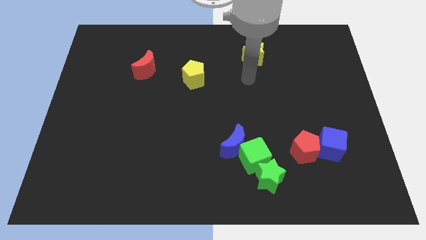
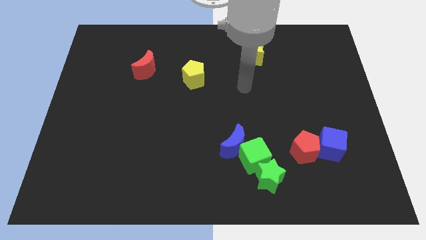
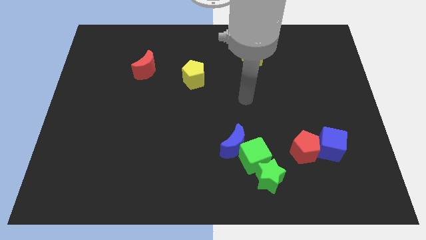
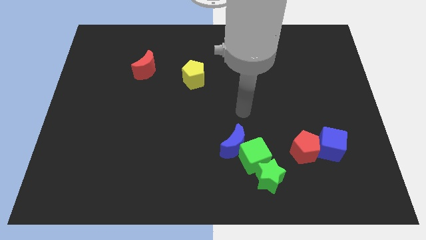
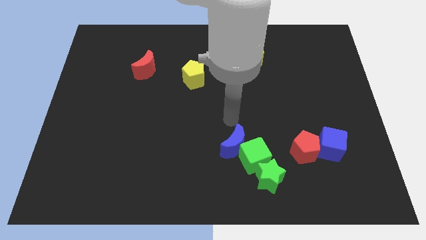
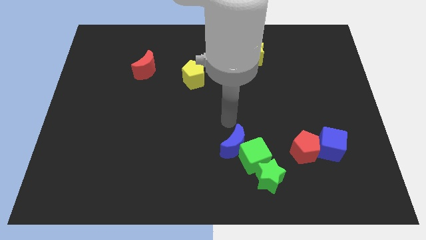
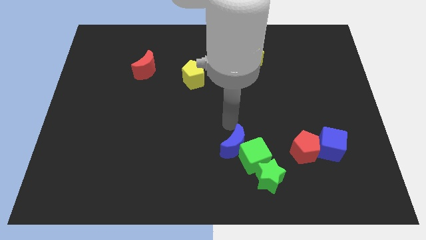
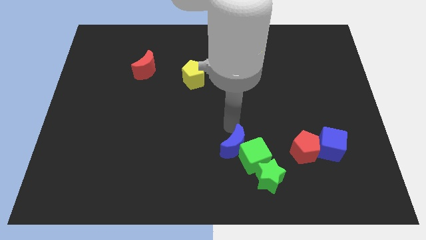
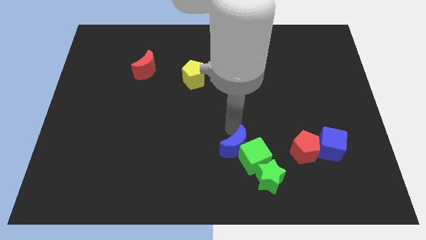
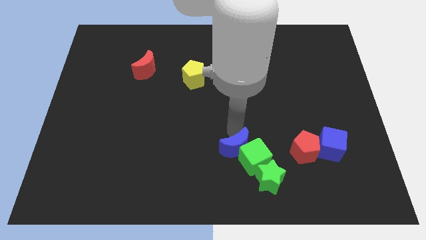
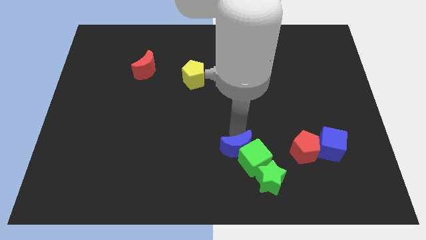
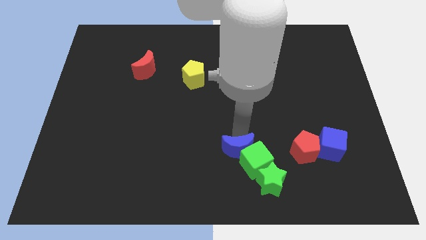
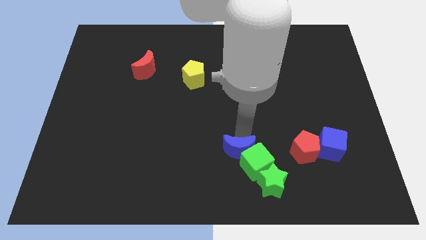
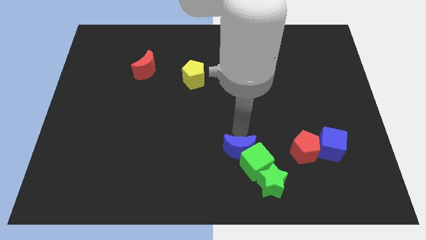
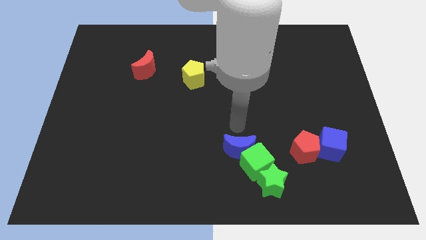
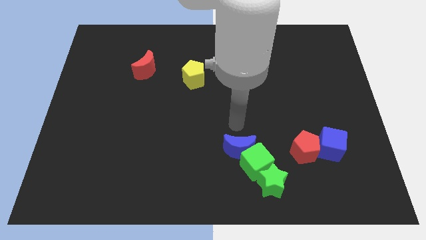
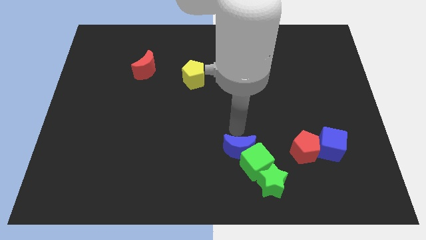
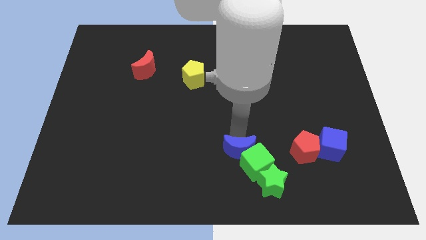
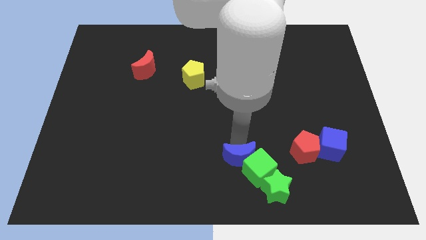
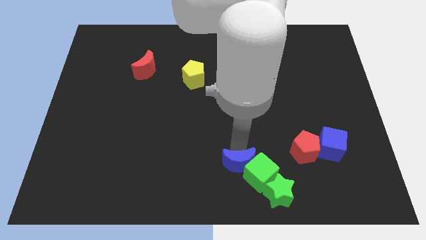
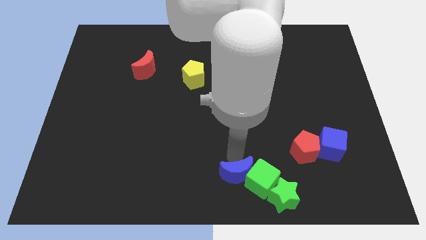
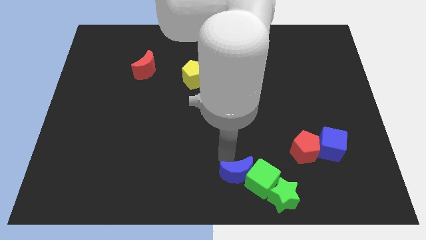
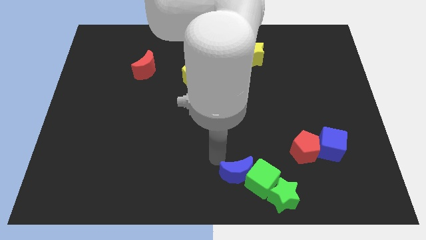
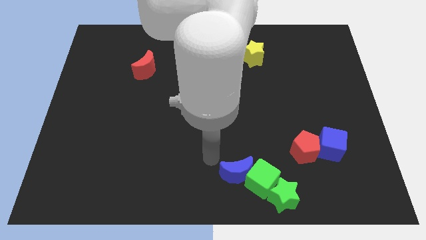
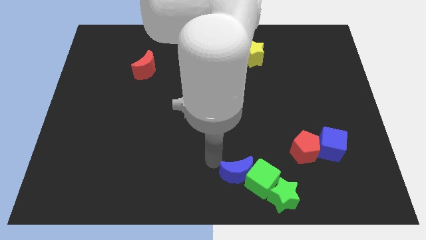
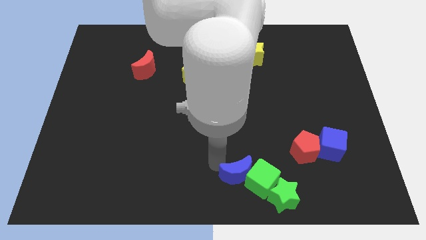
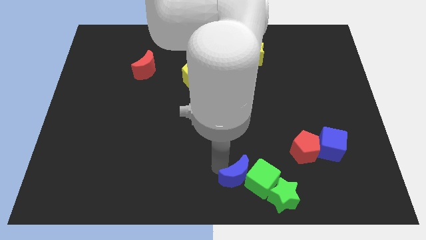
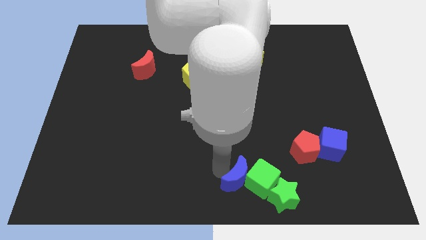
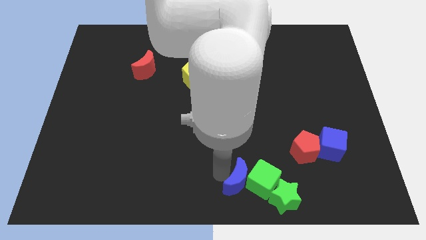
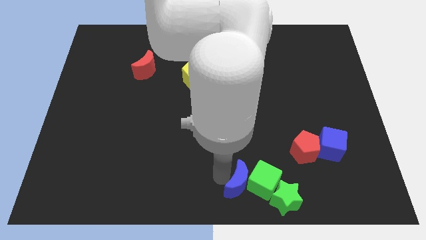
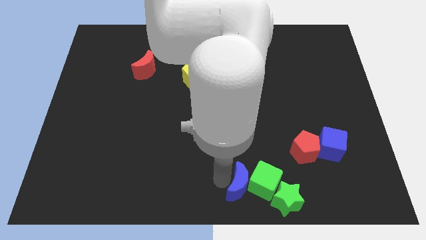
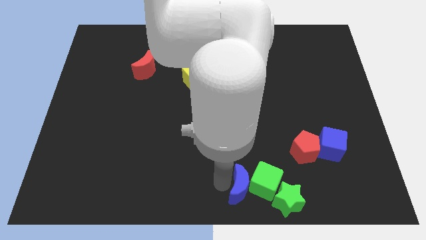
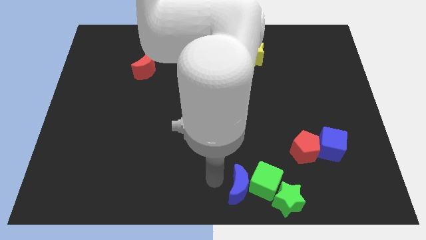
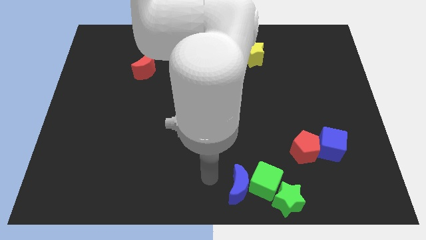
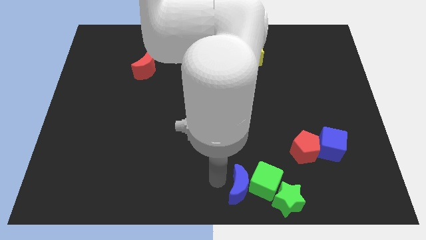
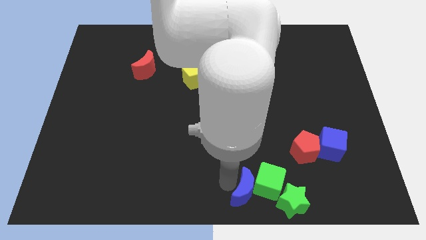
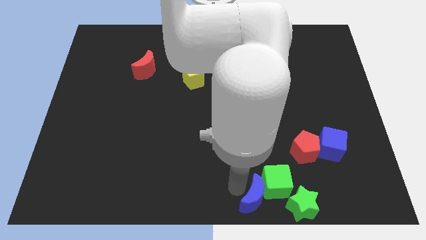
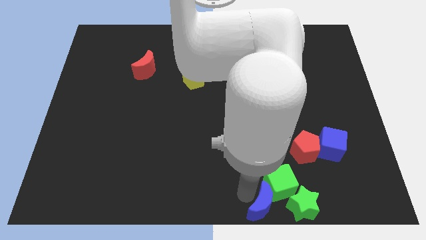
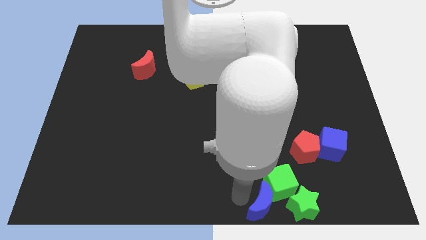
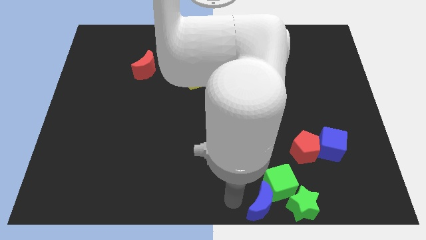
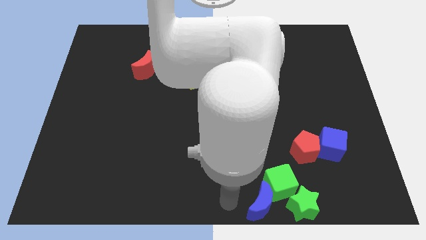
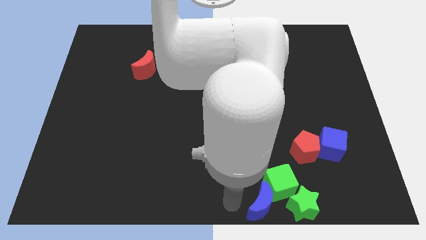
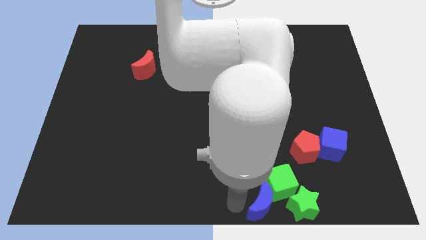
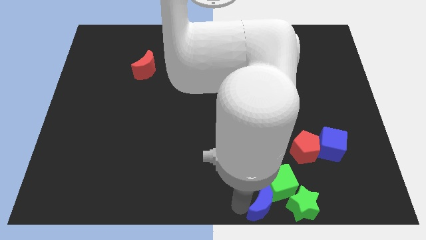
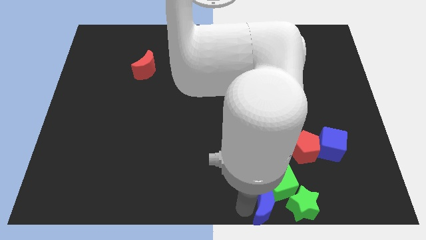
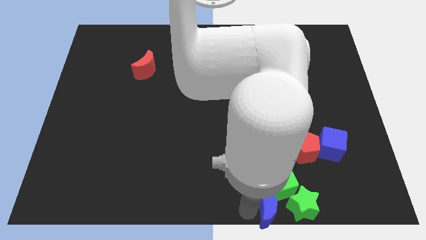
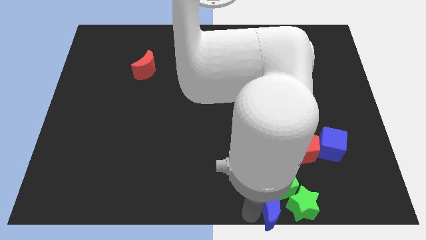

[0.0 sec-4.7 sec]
push the blue moon next to the green star

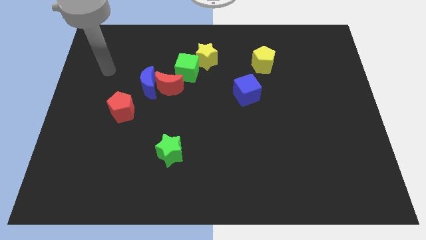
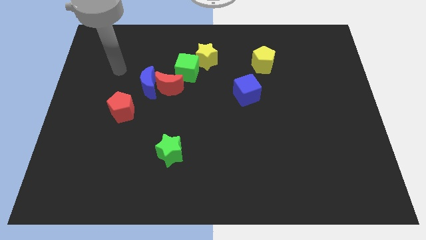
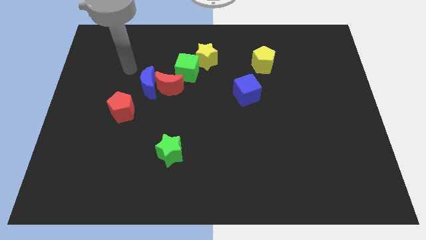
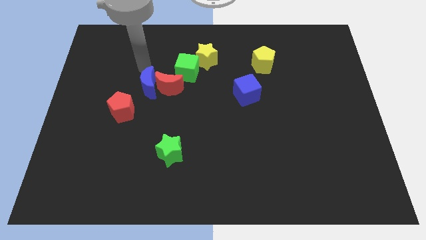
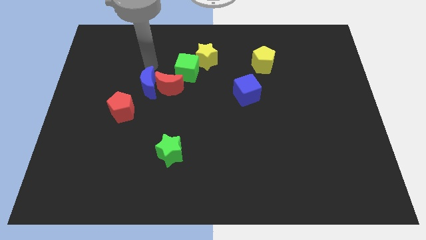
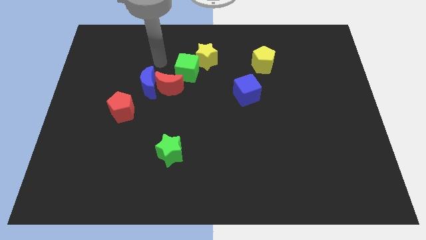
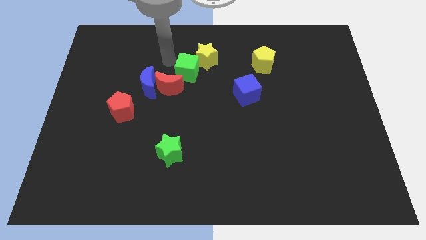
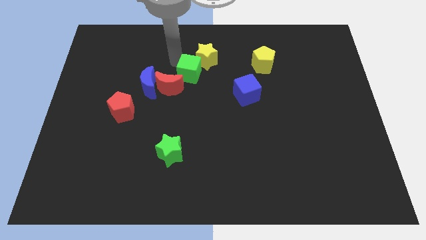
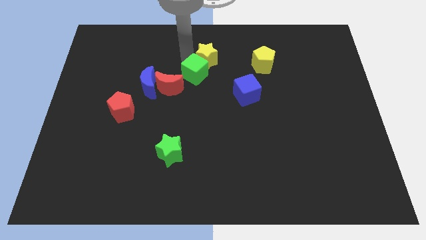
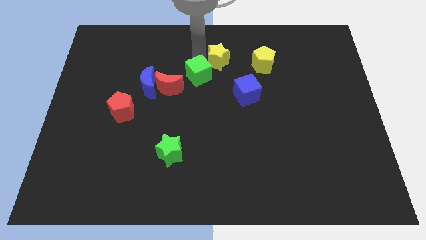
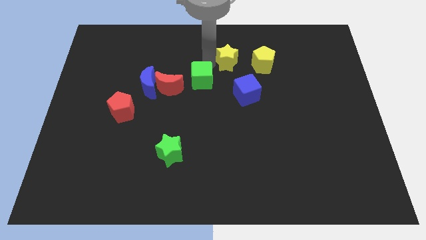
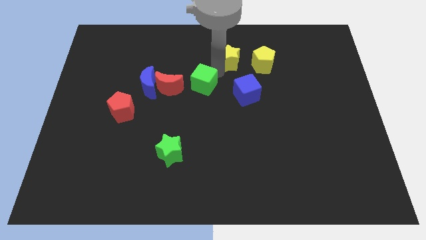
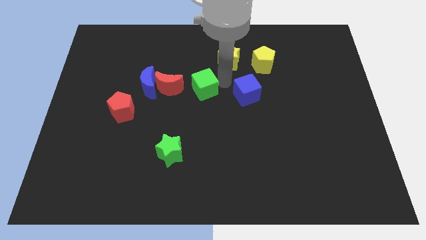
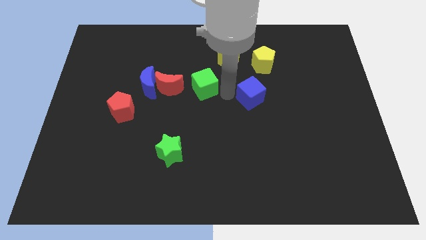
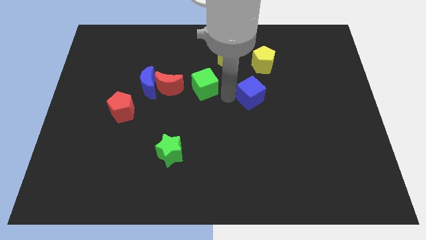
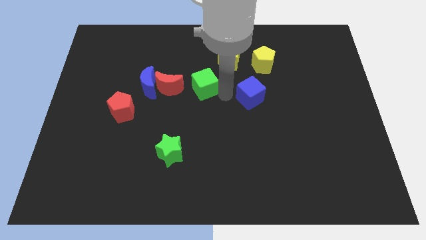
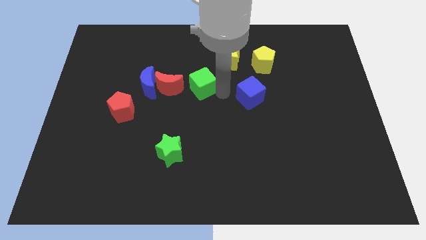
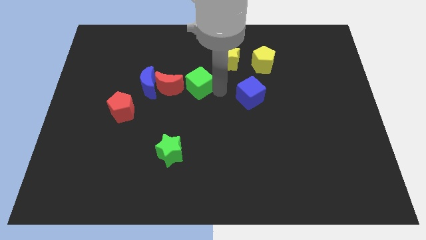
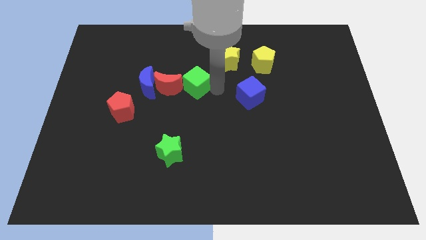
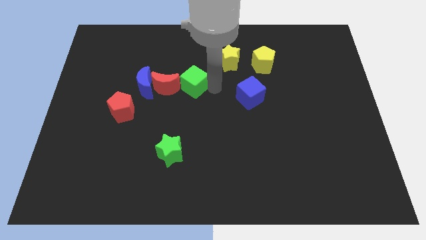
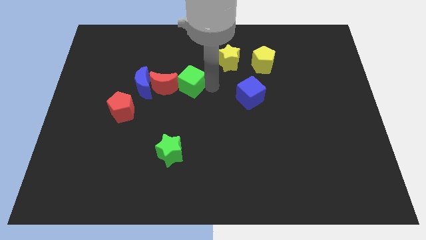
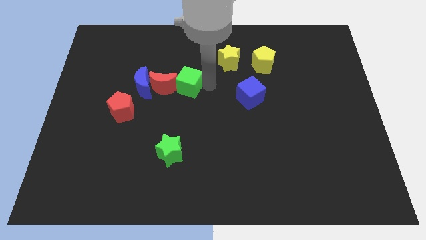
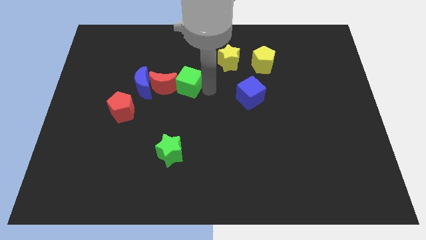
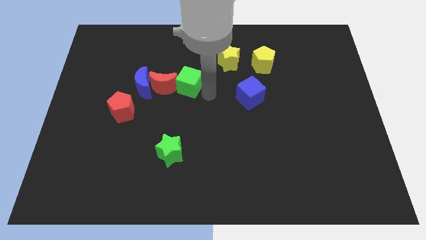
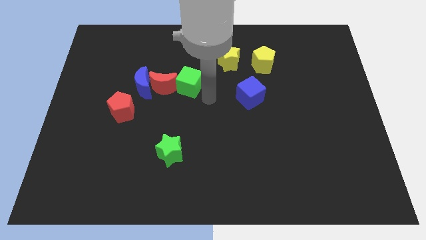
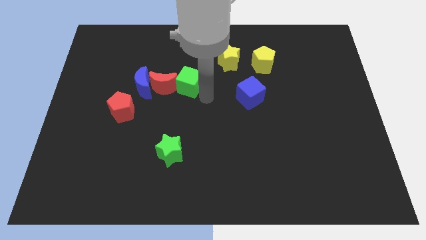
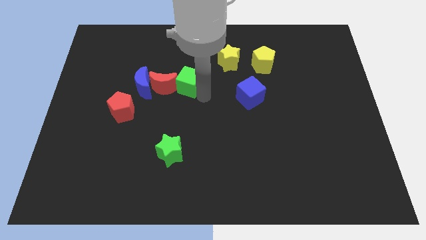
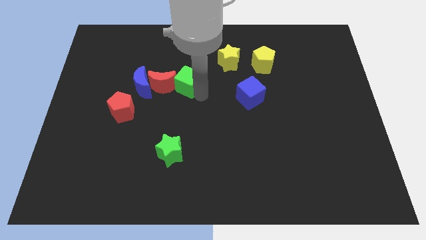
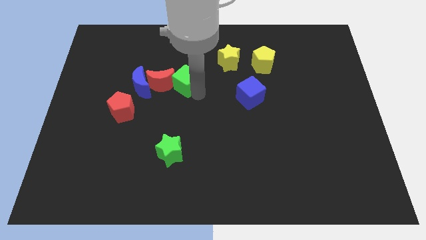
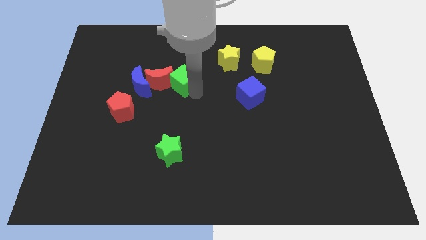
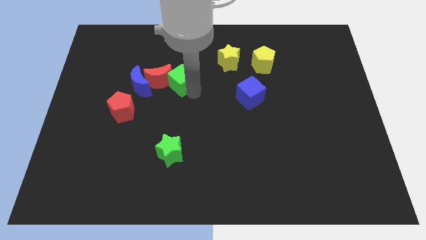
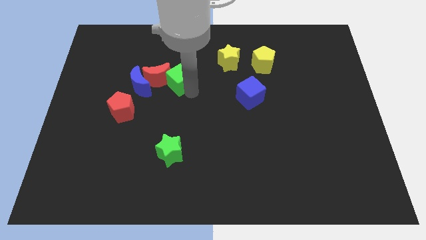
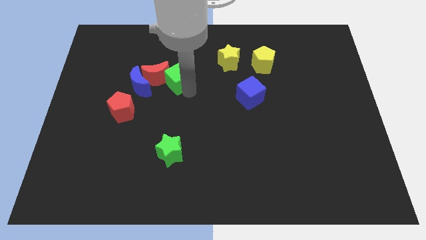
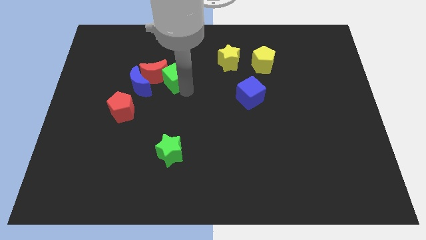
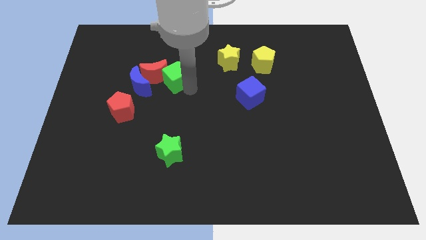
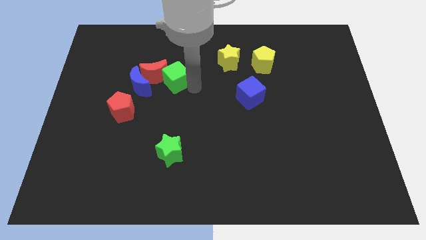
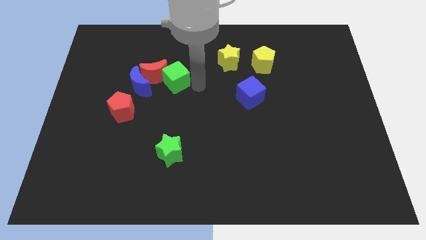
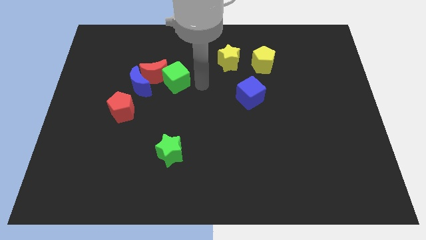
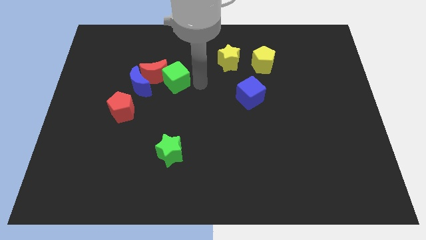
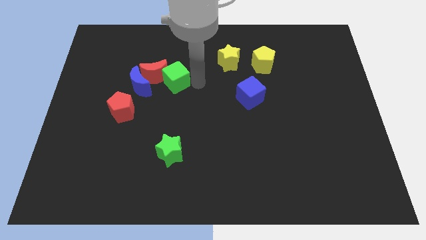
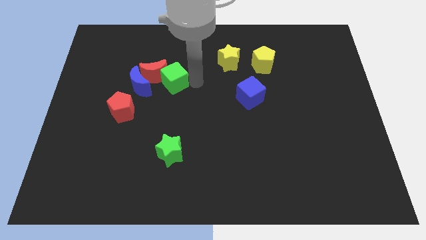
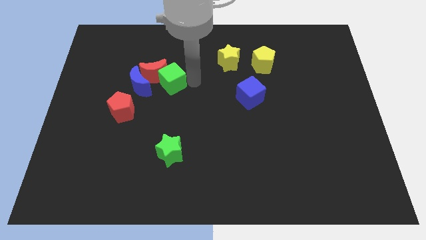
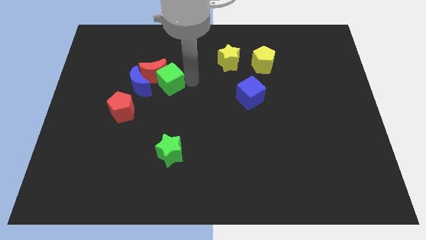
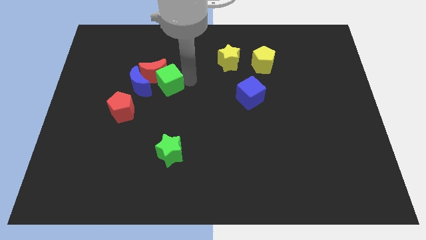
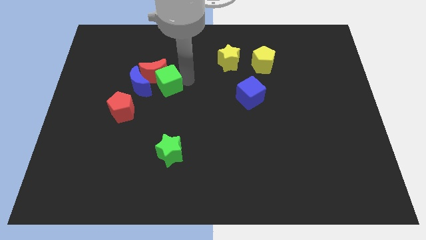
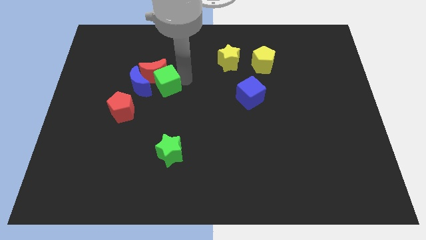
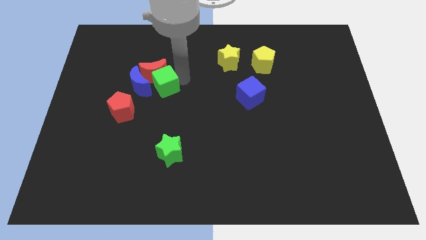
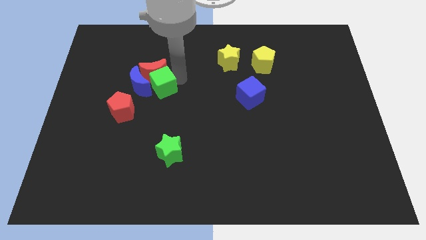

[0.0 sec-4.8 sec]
move the green cube close to the blue moon
